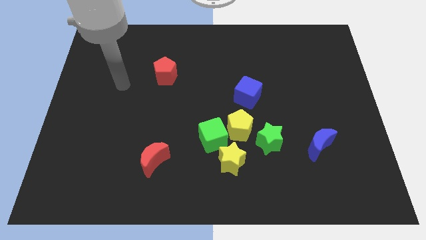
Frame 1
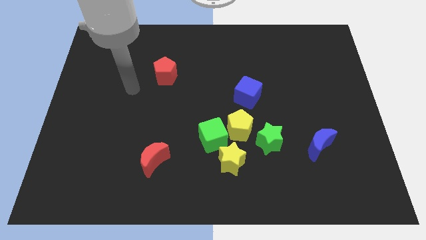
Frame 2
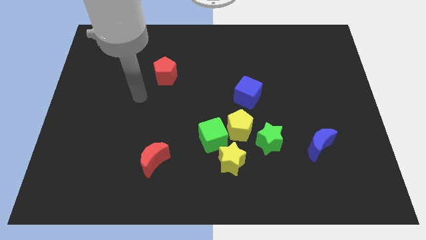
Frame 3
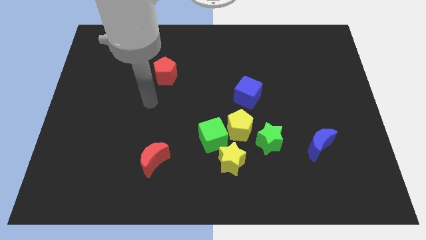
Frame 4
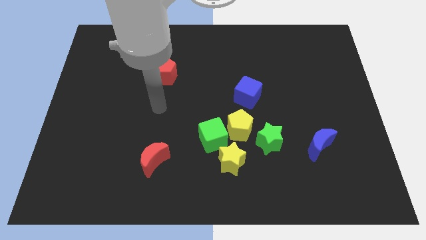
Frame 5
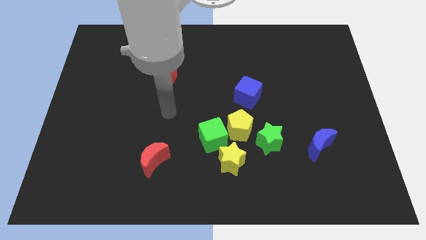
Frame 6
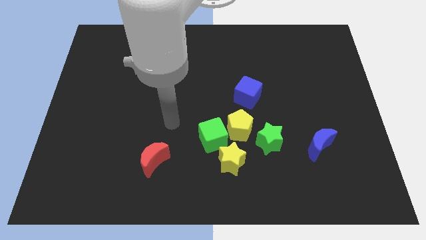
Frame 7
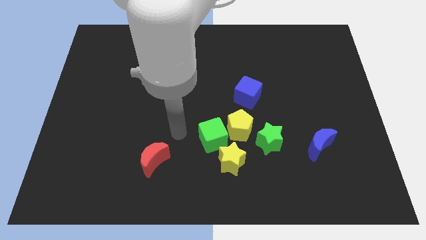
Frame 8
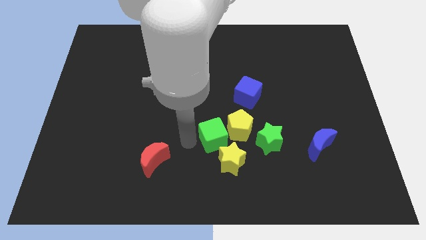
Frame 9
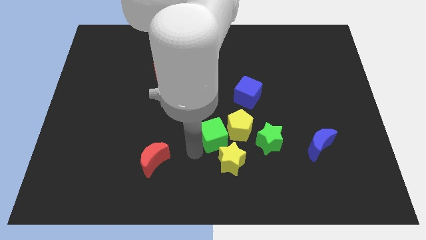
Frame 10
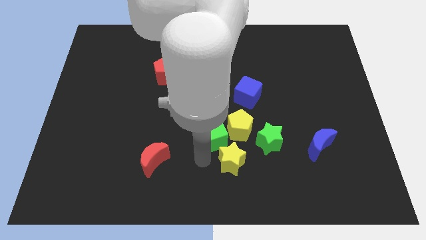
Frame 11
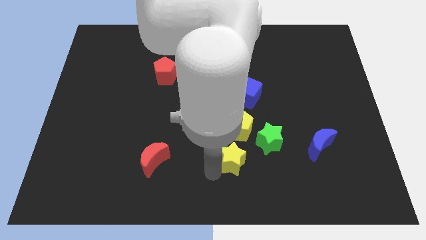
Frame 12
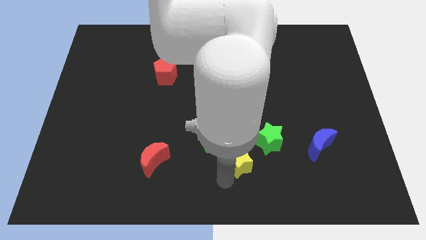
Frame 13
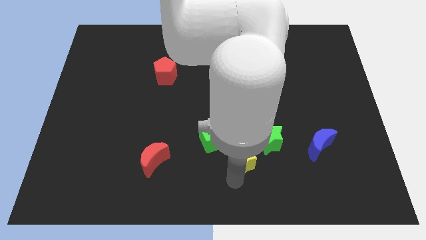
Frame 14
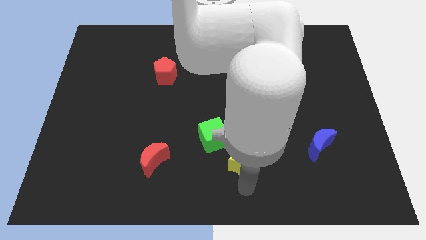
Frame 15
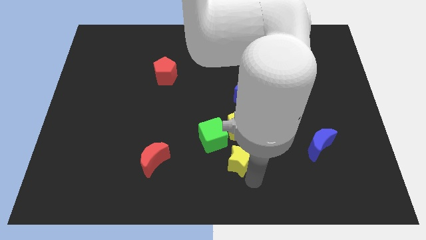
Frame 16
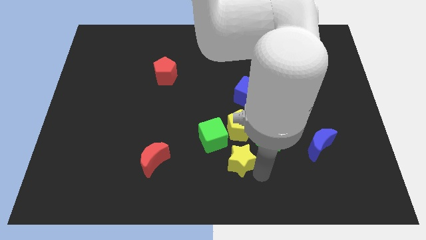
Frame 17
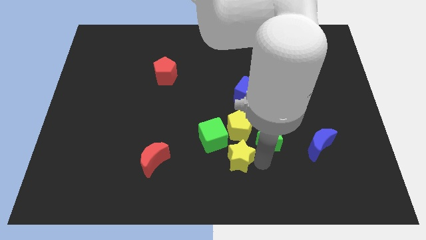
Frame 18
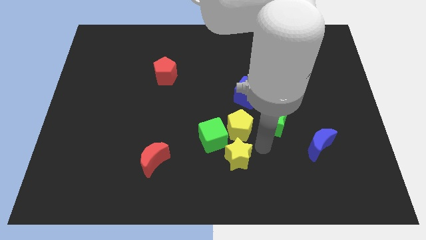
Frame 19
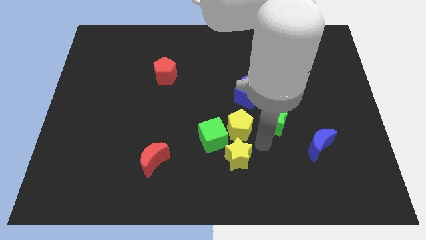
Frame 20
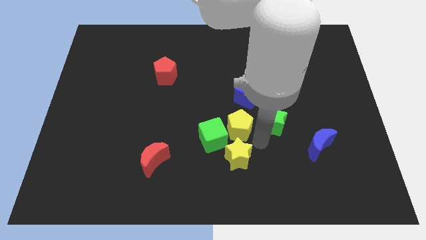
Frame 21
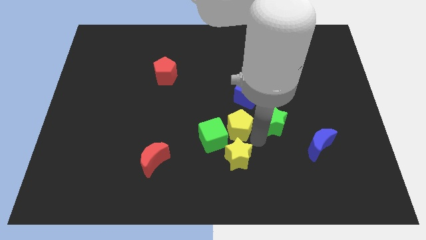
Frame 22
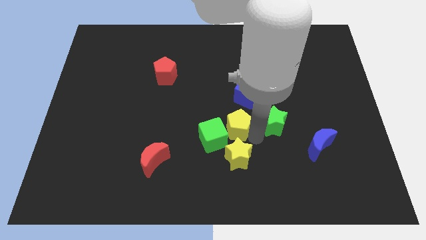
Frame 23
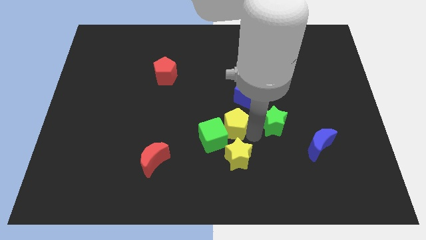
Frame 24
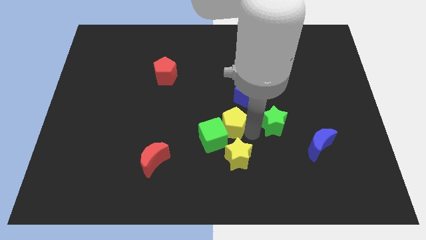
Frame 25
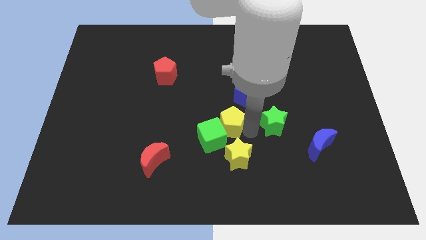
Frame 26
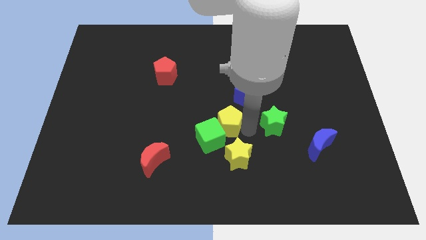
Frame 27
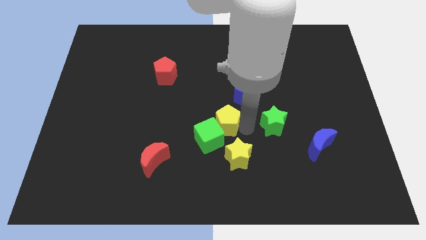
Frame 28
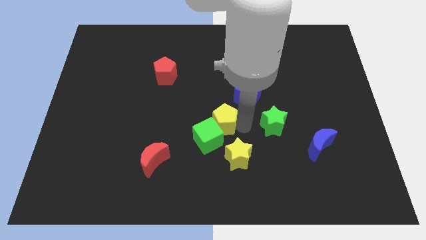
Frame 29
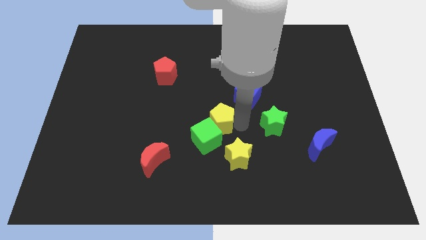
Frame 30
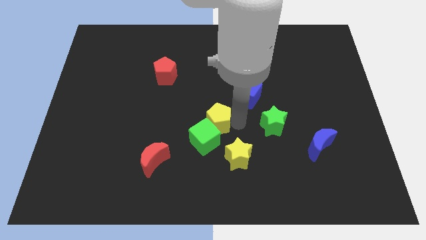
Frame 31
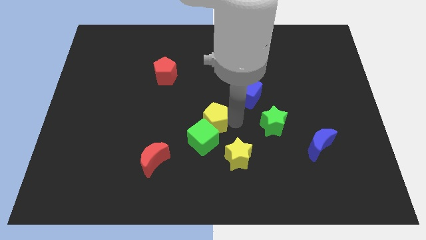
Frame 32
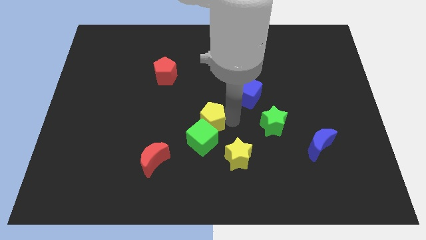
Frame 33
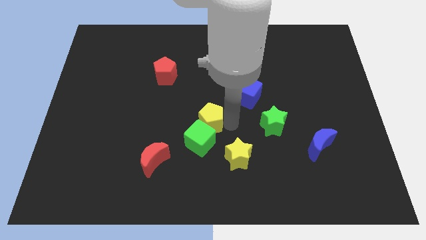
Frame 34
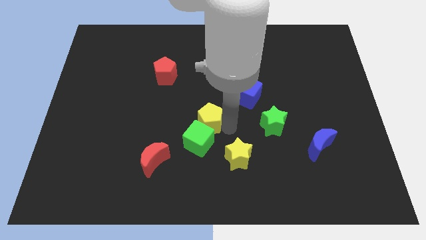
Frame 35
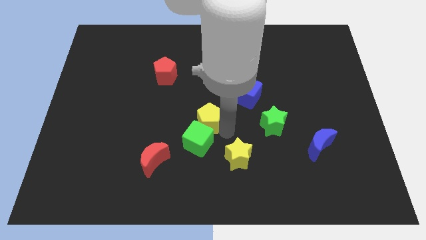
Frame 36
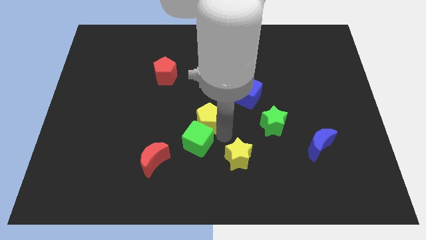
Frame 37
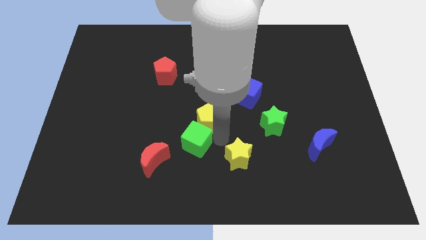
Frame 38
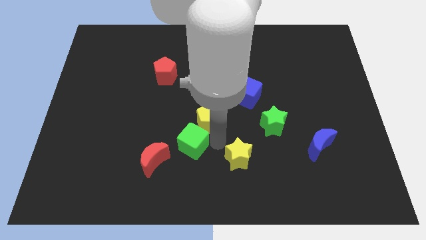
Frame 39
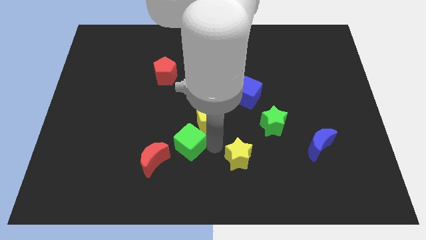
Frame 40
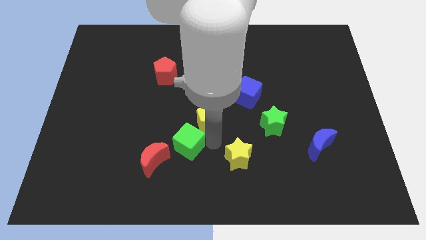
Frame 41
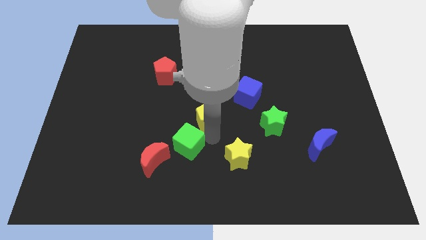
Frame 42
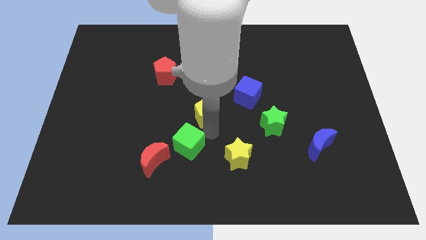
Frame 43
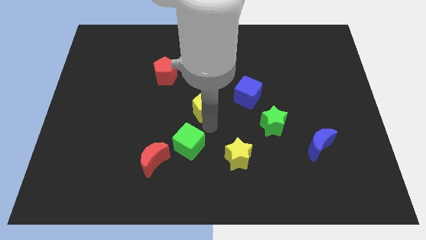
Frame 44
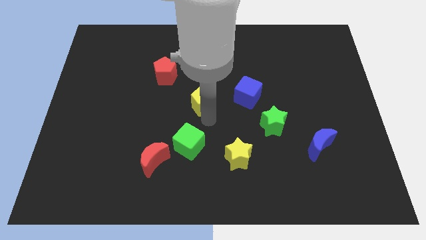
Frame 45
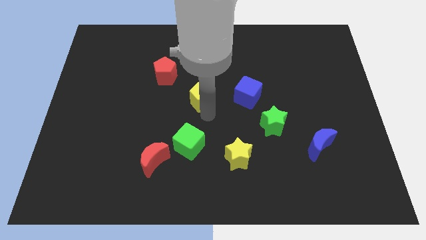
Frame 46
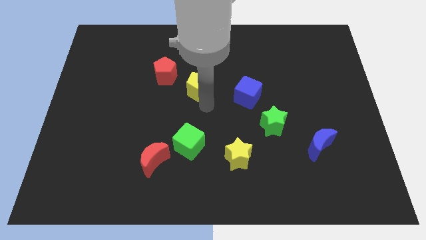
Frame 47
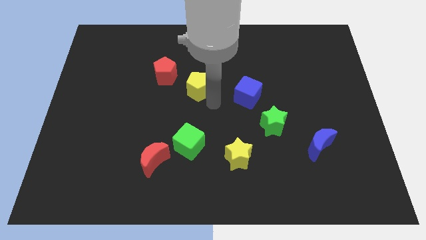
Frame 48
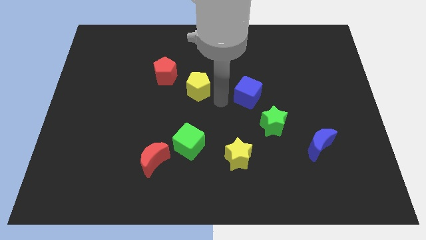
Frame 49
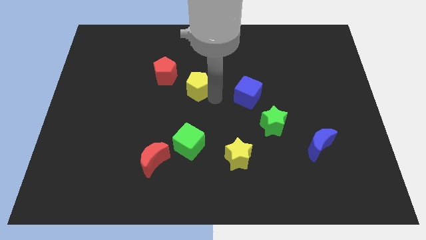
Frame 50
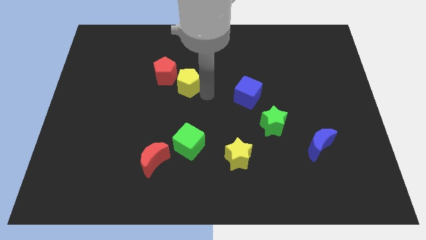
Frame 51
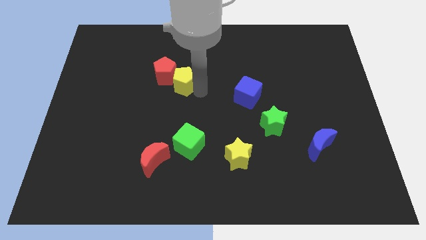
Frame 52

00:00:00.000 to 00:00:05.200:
move the yellow pentagon close to the red pentagon

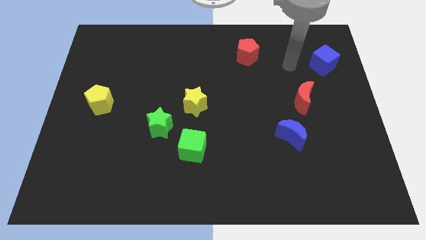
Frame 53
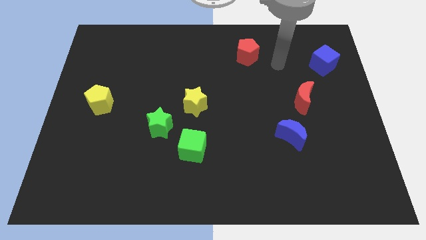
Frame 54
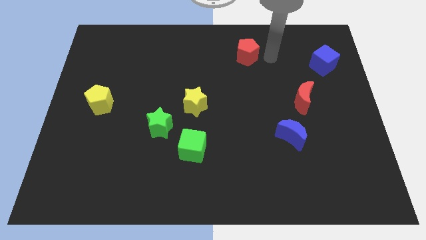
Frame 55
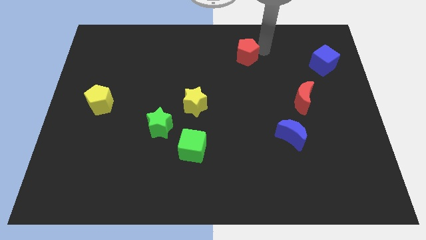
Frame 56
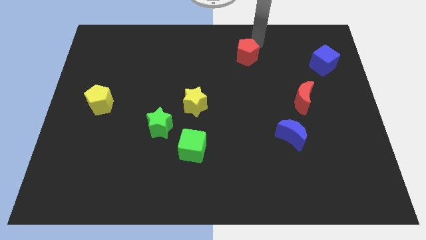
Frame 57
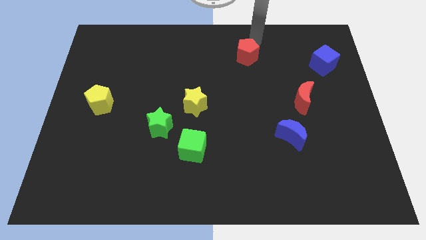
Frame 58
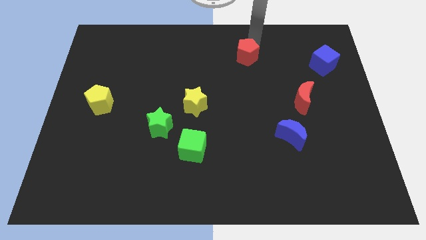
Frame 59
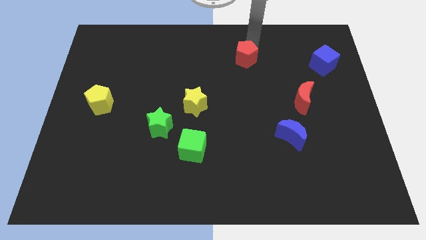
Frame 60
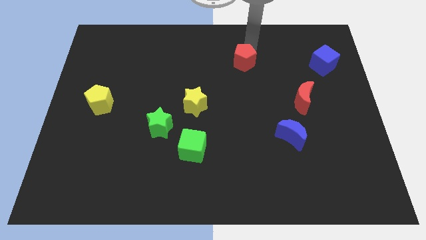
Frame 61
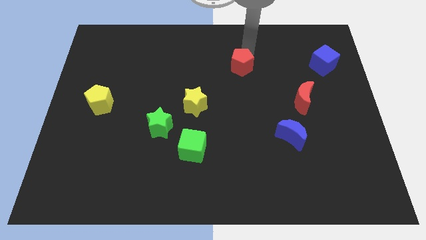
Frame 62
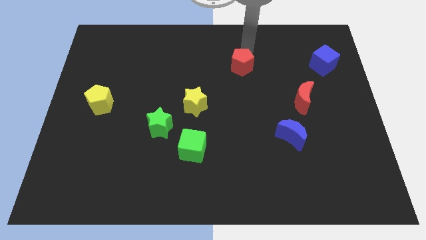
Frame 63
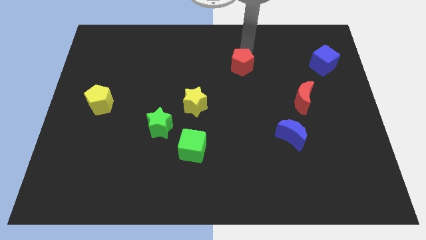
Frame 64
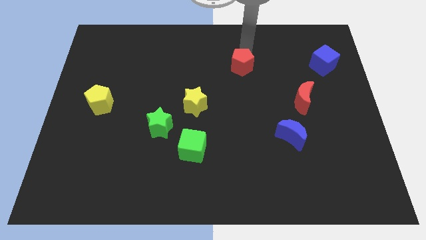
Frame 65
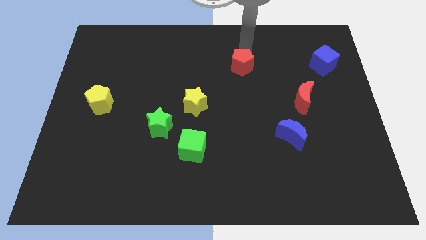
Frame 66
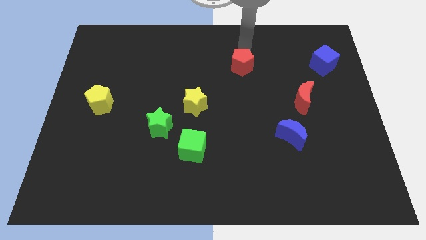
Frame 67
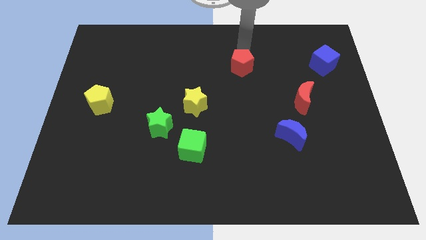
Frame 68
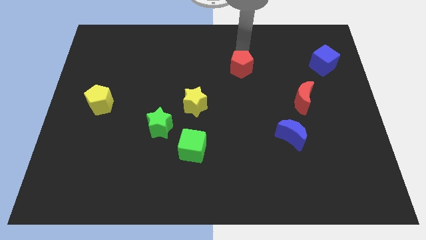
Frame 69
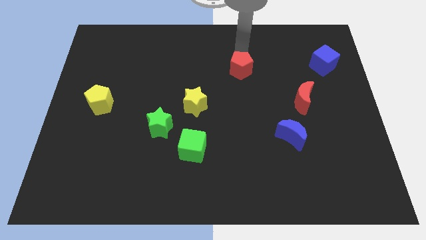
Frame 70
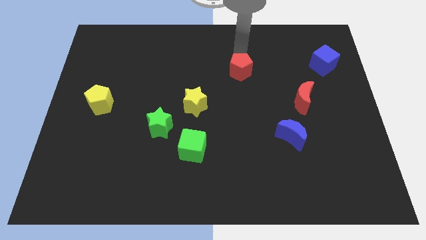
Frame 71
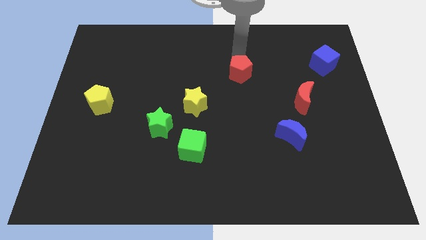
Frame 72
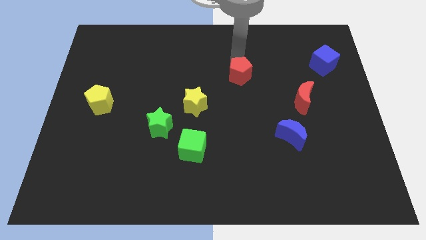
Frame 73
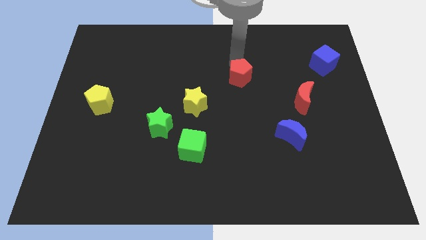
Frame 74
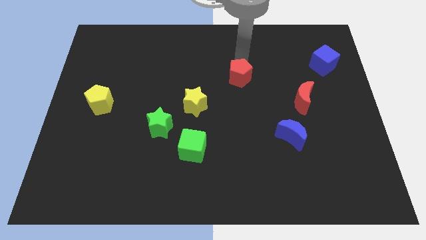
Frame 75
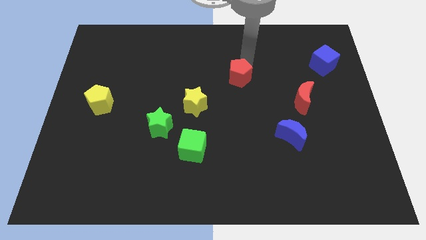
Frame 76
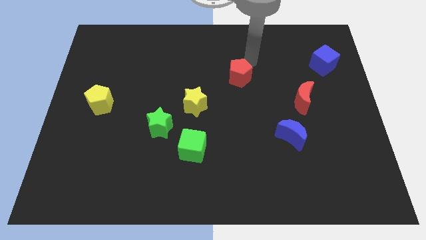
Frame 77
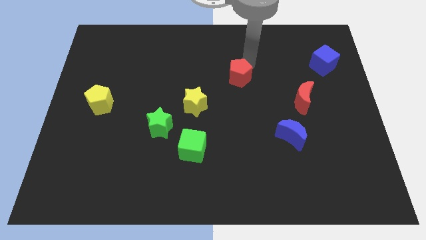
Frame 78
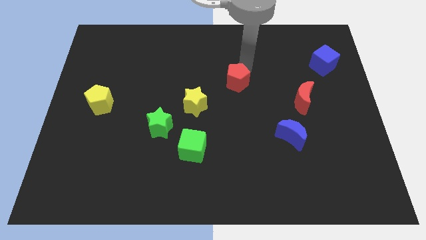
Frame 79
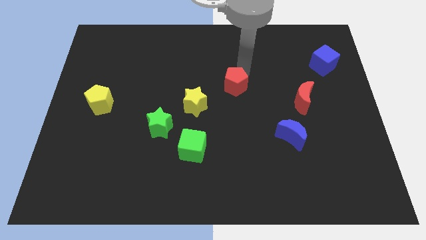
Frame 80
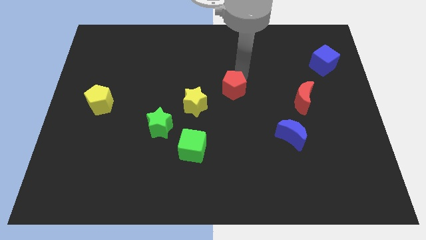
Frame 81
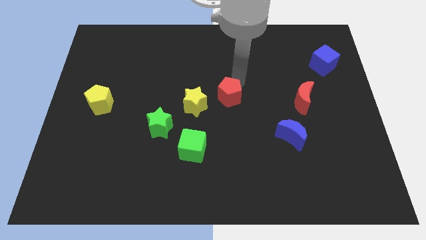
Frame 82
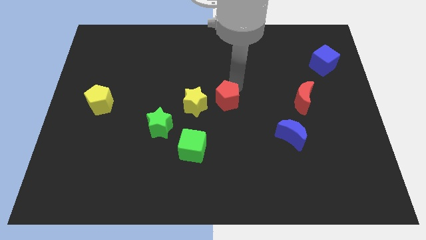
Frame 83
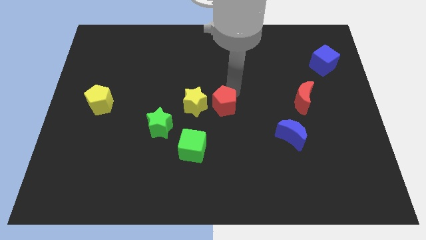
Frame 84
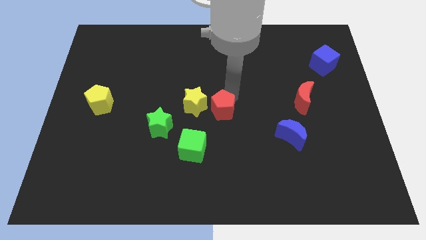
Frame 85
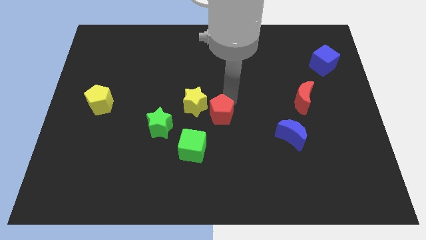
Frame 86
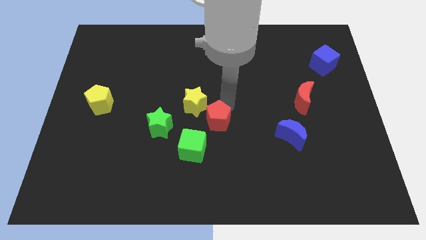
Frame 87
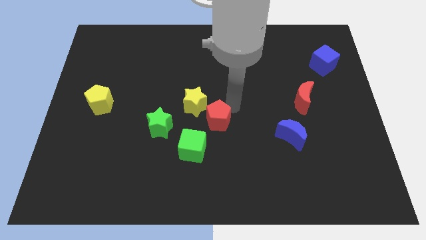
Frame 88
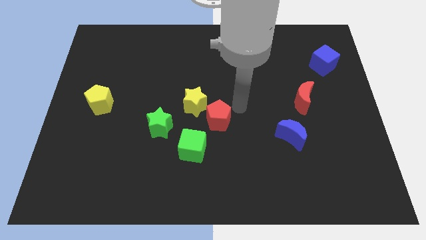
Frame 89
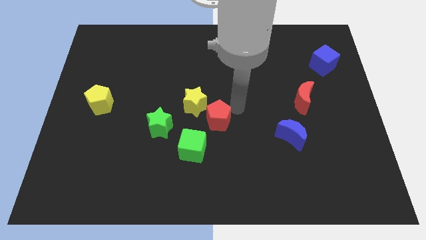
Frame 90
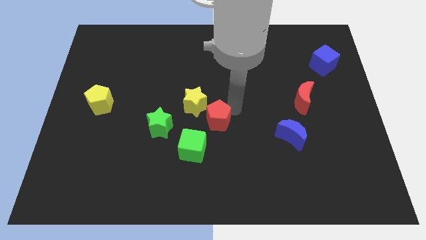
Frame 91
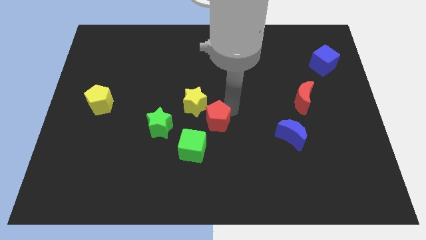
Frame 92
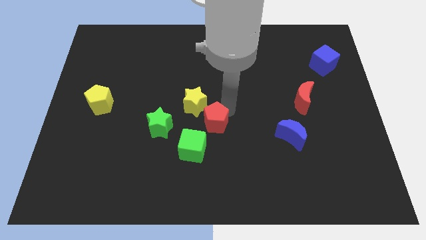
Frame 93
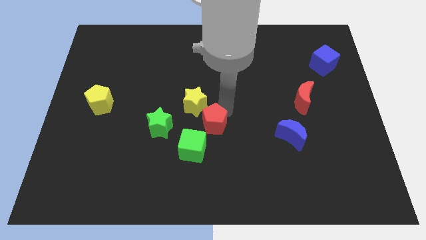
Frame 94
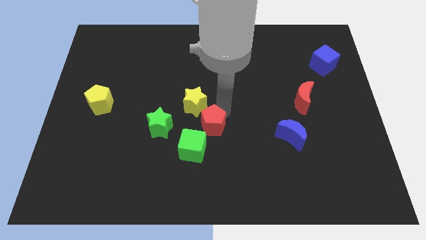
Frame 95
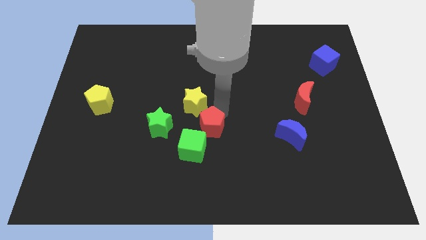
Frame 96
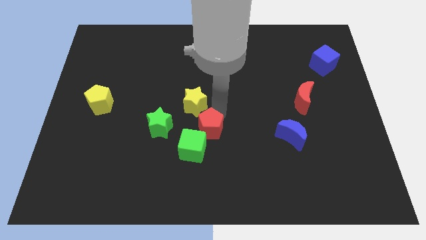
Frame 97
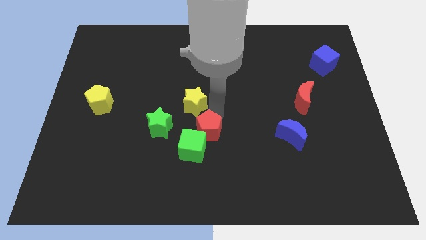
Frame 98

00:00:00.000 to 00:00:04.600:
put the red pentagon close to the green cube
